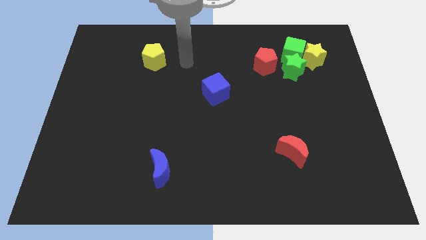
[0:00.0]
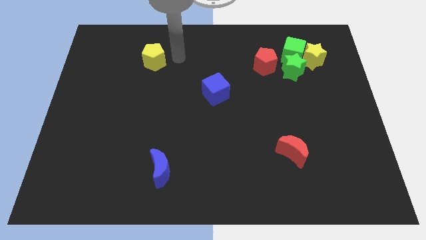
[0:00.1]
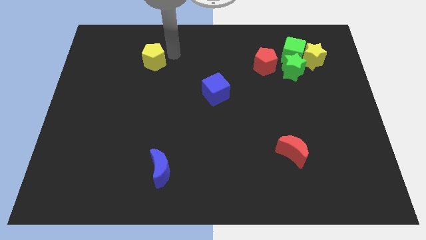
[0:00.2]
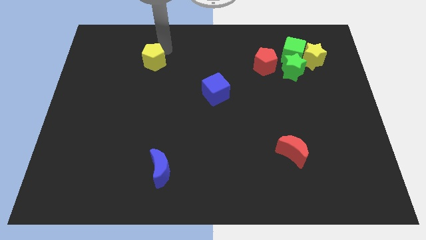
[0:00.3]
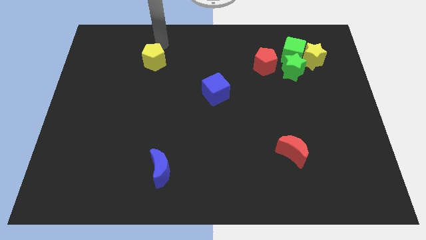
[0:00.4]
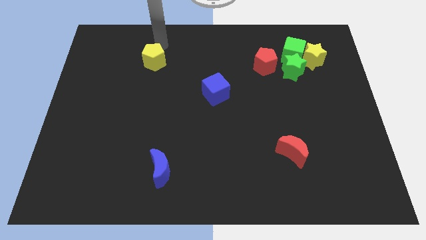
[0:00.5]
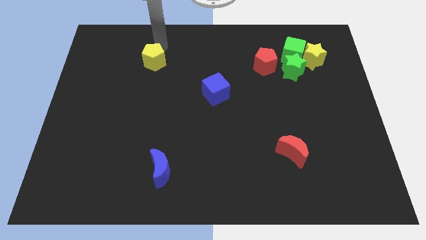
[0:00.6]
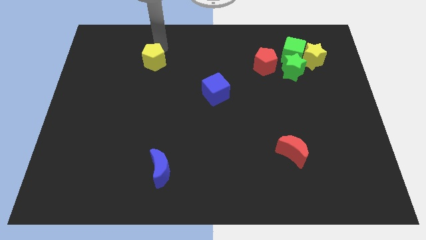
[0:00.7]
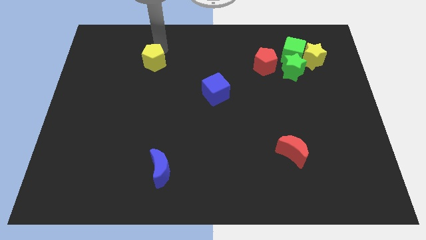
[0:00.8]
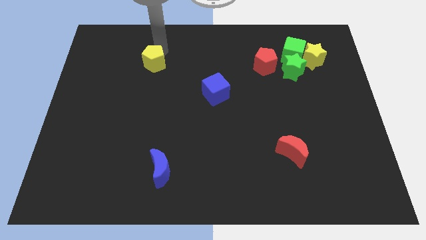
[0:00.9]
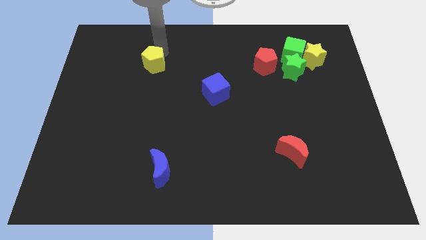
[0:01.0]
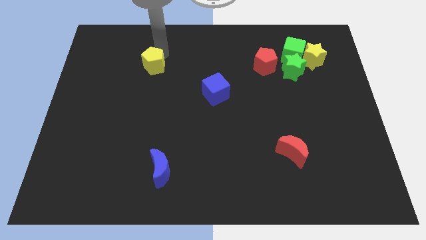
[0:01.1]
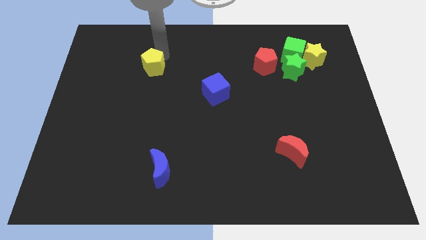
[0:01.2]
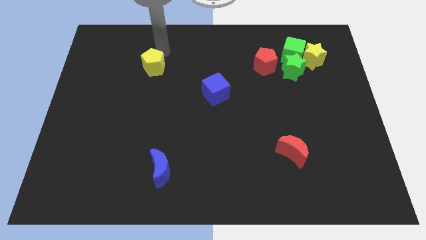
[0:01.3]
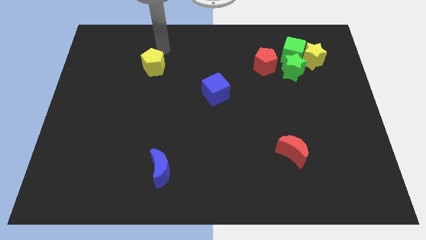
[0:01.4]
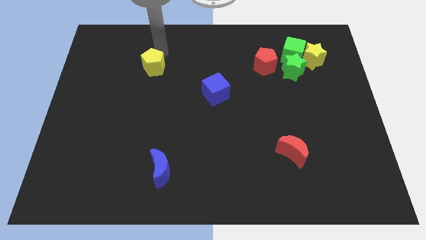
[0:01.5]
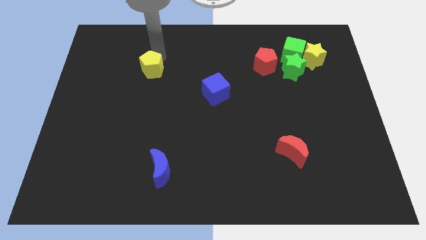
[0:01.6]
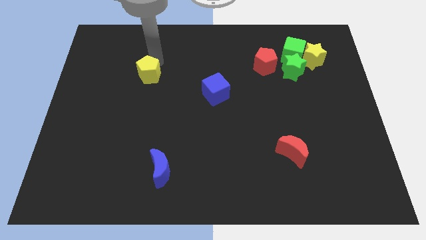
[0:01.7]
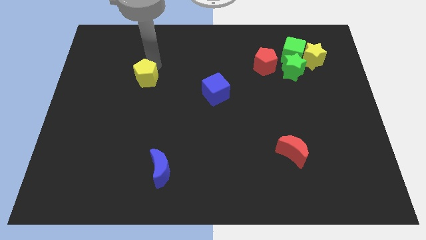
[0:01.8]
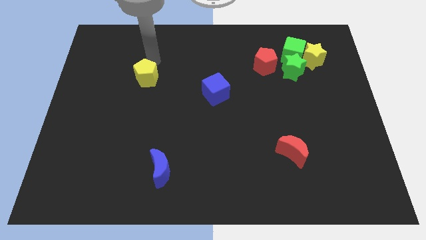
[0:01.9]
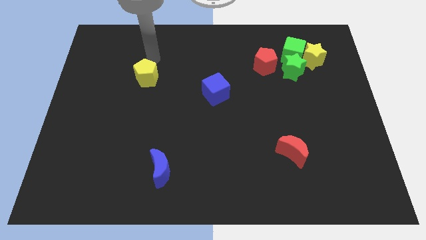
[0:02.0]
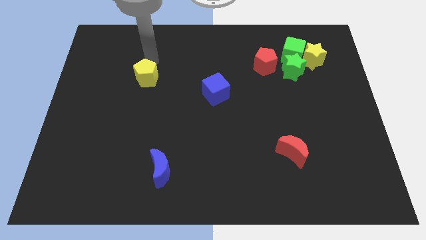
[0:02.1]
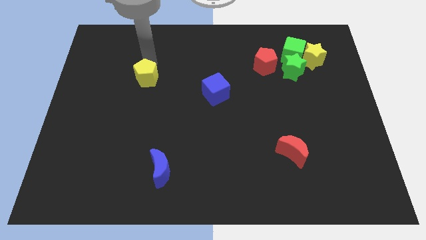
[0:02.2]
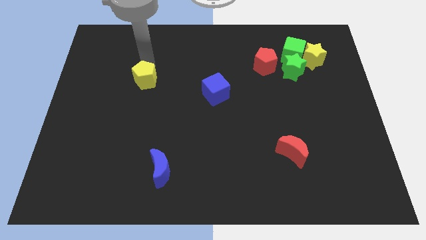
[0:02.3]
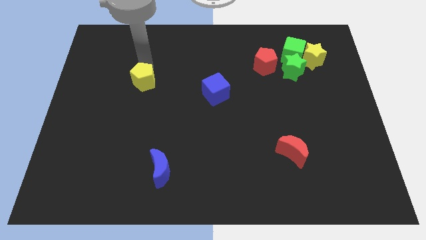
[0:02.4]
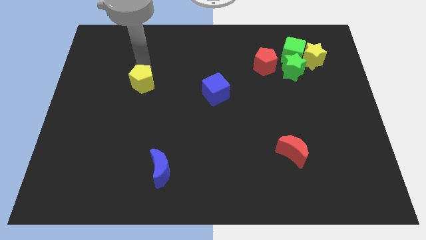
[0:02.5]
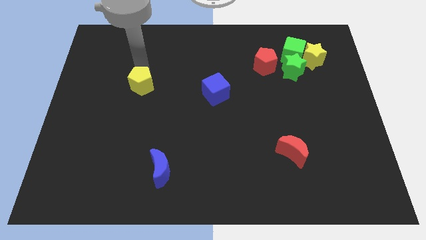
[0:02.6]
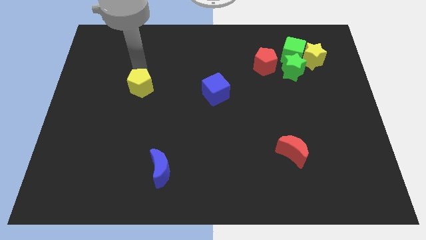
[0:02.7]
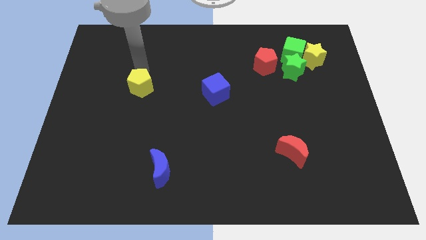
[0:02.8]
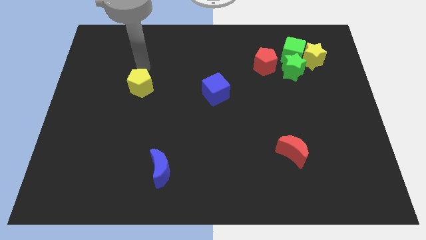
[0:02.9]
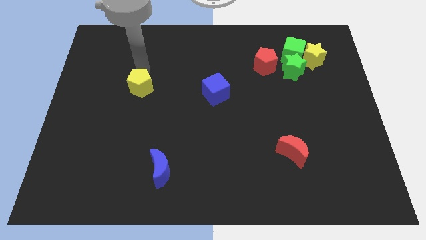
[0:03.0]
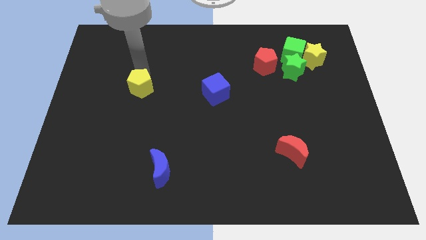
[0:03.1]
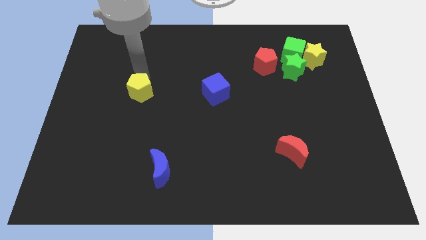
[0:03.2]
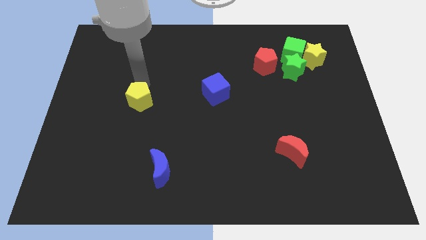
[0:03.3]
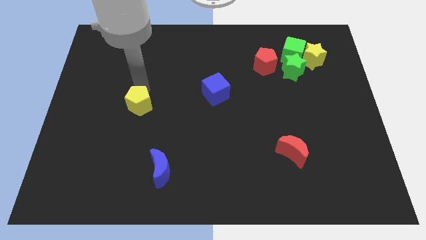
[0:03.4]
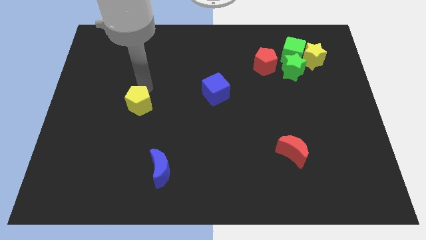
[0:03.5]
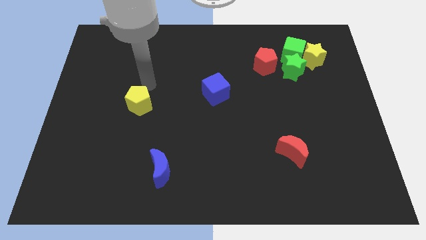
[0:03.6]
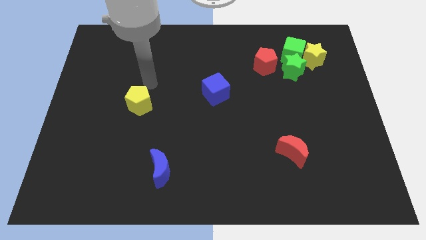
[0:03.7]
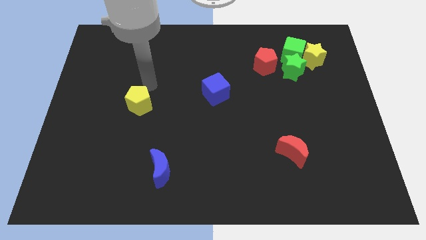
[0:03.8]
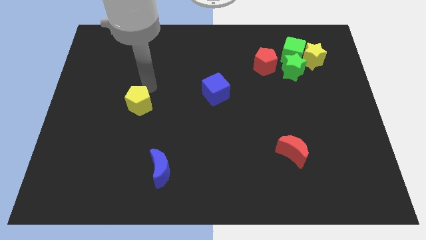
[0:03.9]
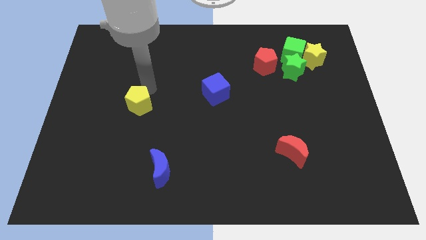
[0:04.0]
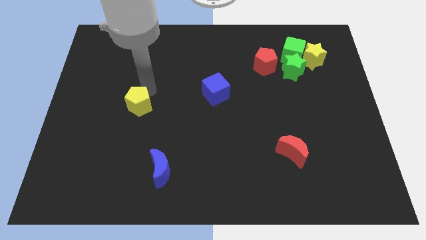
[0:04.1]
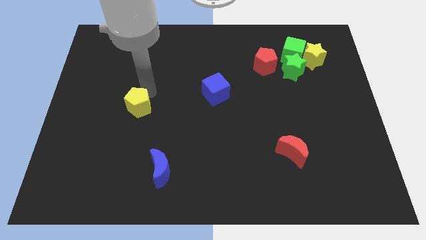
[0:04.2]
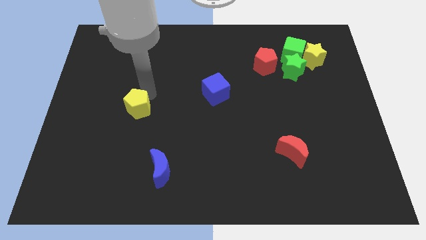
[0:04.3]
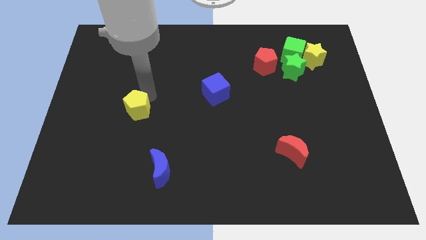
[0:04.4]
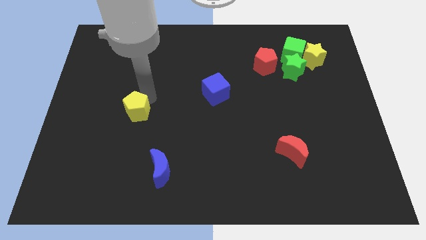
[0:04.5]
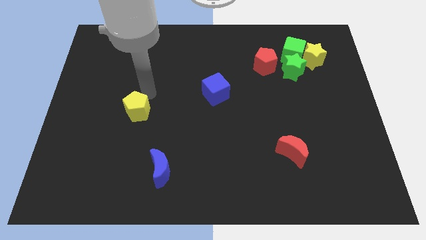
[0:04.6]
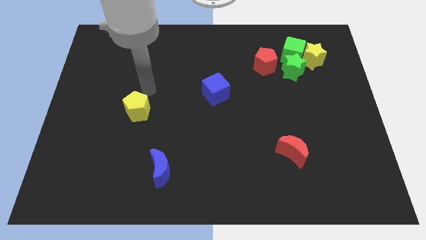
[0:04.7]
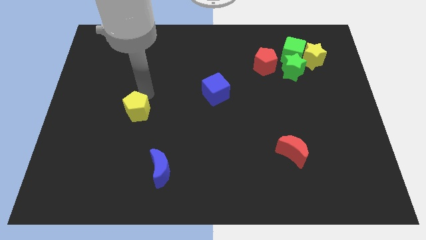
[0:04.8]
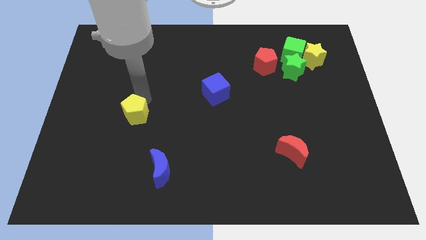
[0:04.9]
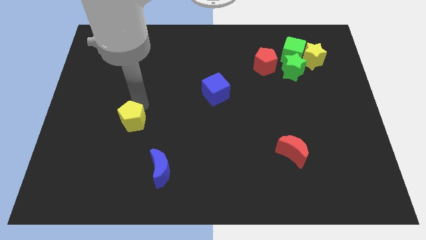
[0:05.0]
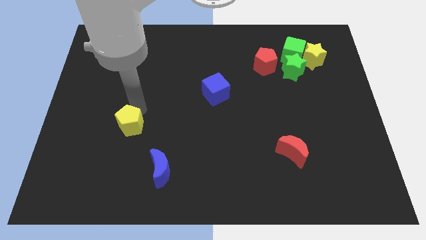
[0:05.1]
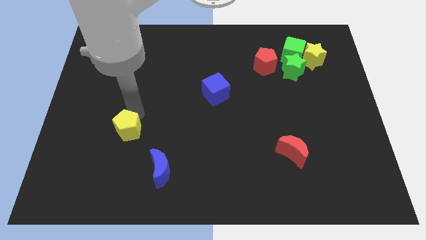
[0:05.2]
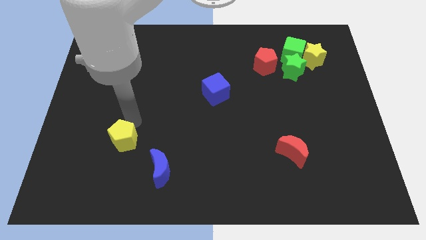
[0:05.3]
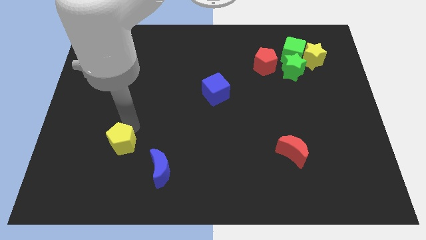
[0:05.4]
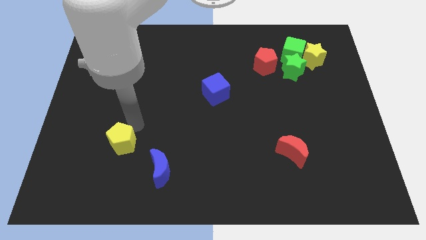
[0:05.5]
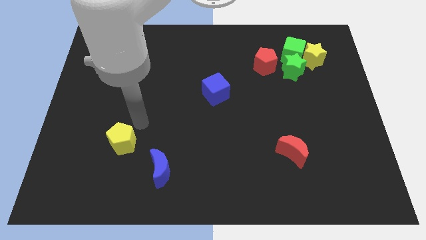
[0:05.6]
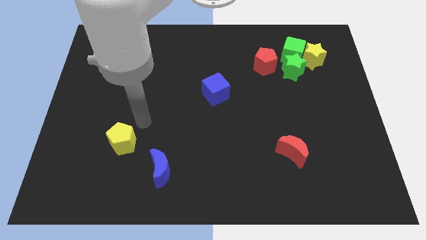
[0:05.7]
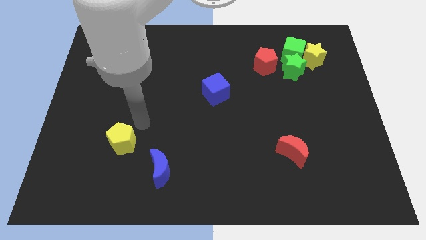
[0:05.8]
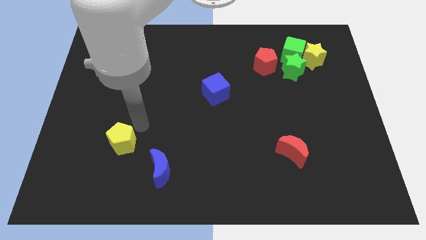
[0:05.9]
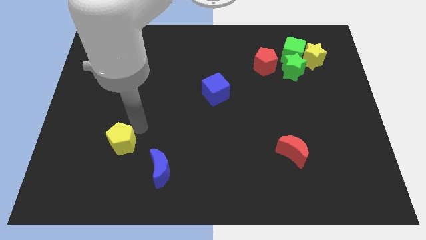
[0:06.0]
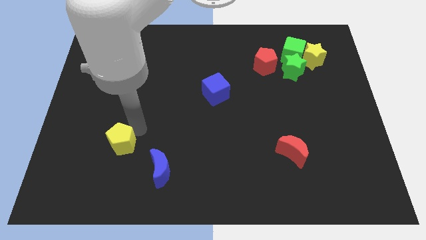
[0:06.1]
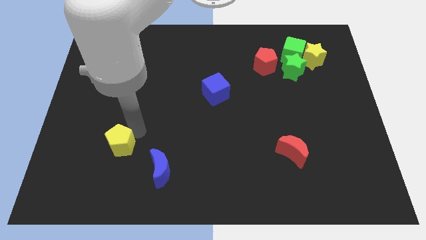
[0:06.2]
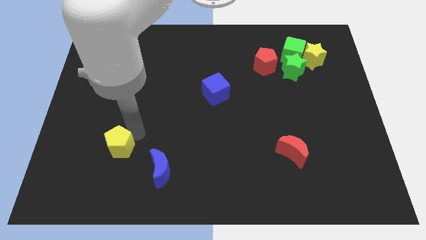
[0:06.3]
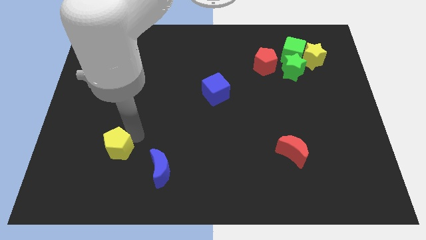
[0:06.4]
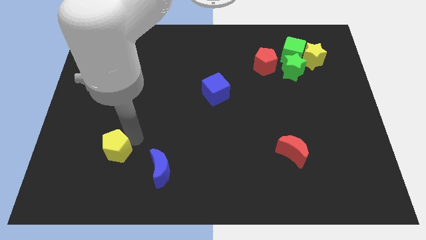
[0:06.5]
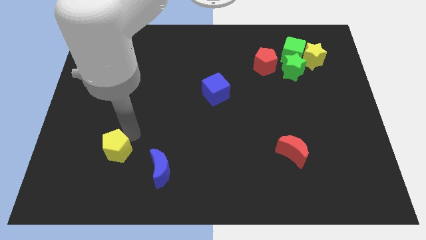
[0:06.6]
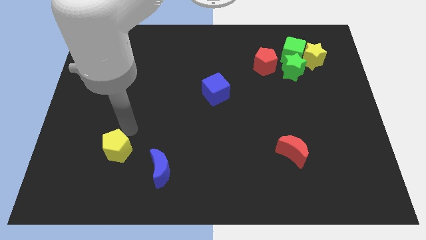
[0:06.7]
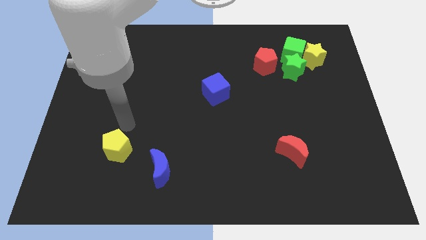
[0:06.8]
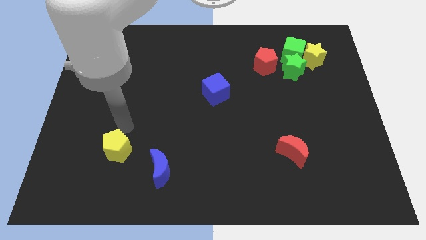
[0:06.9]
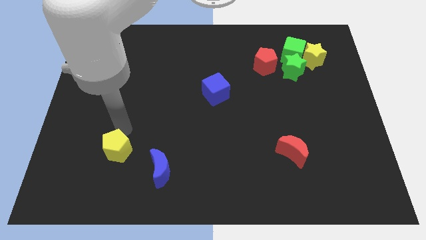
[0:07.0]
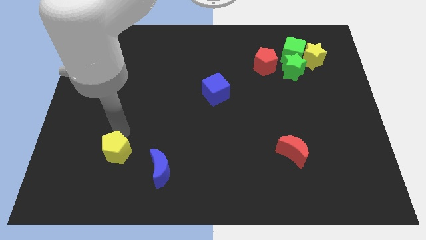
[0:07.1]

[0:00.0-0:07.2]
put the yellow pentagon to the left side of the blue moon
